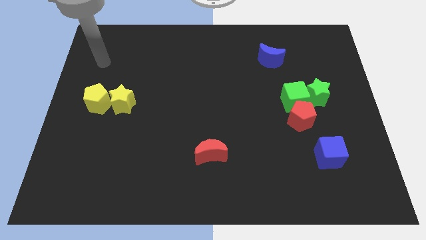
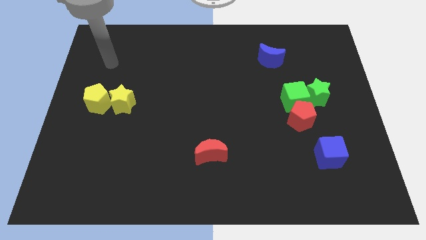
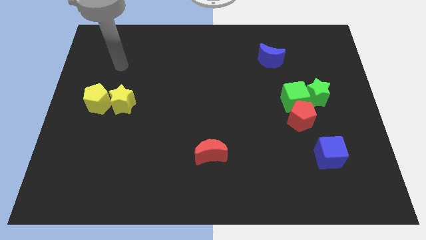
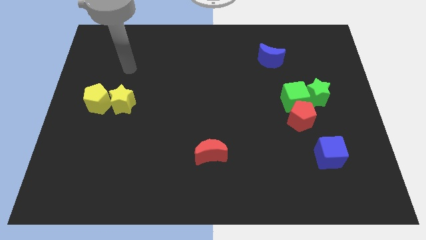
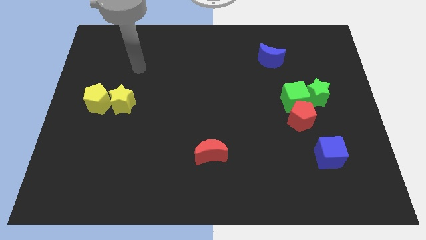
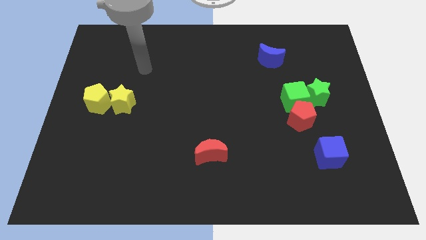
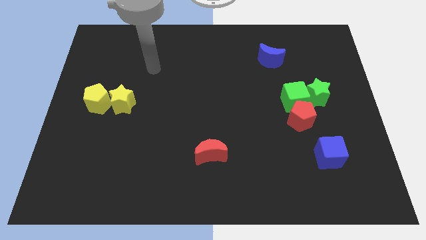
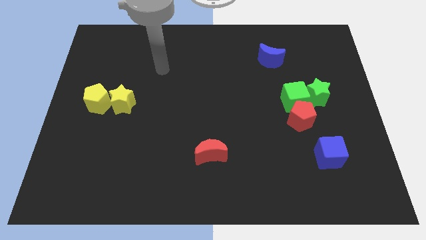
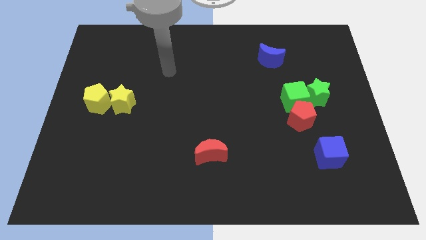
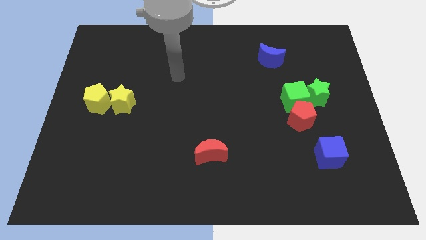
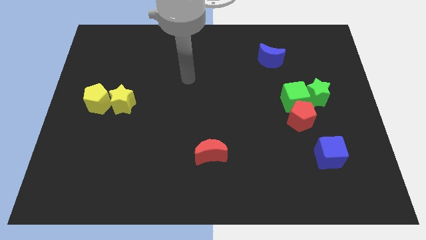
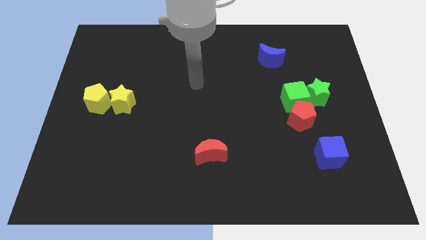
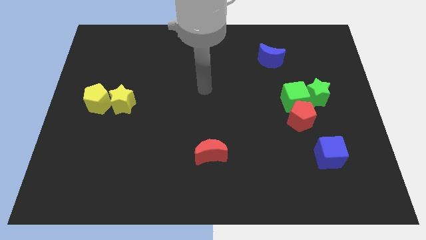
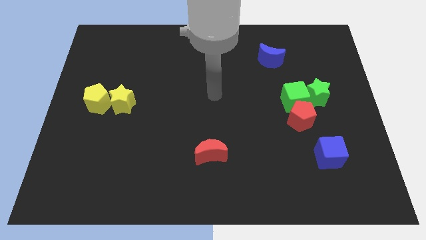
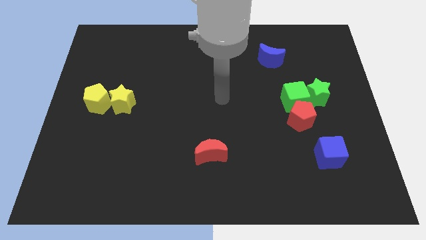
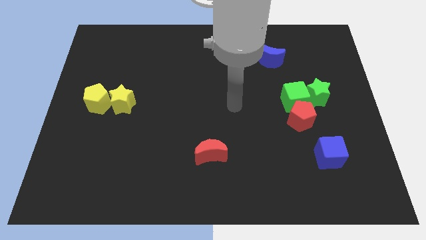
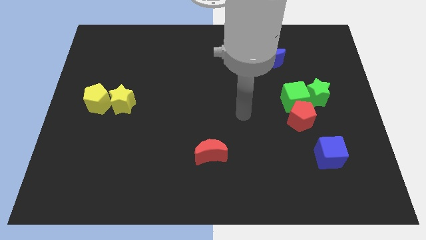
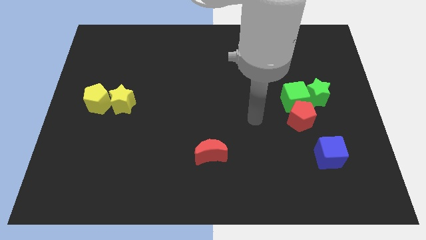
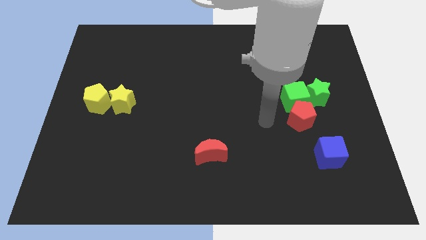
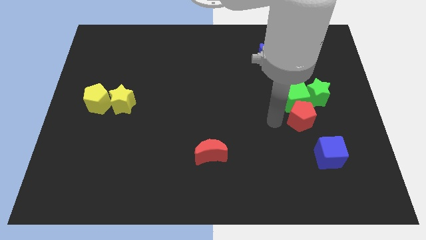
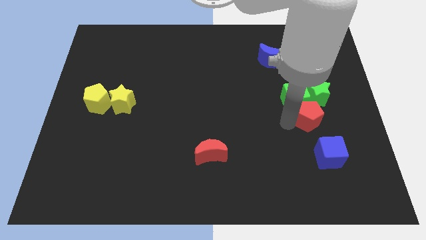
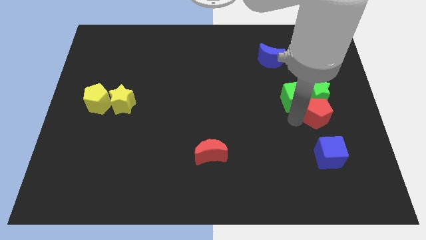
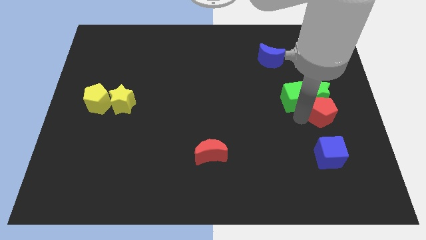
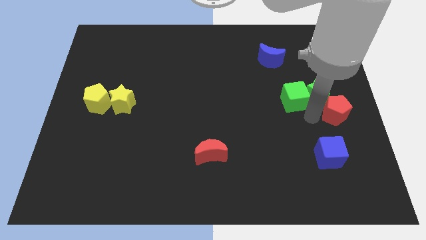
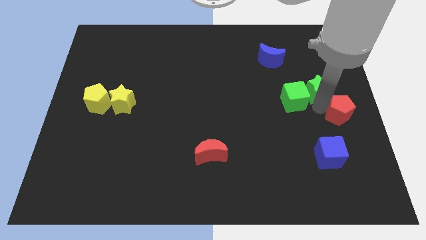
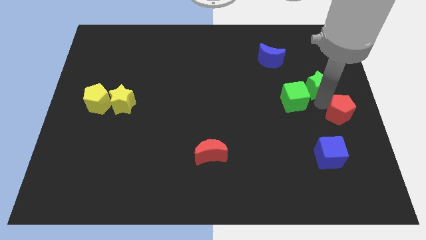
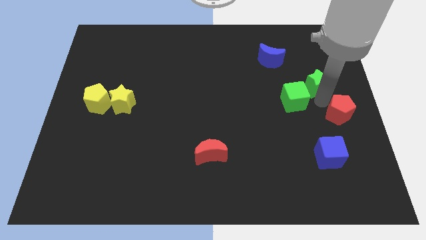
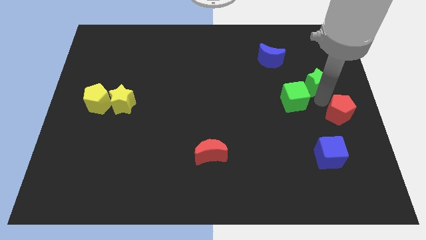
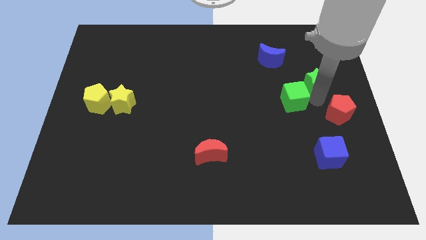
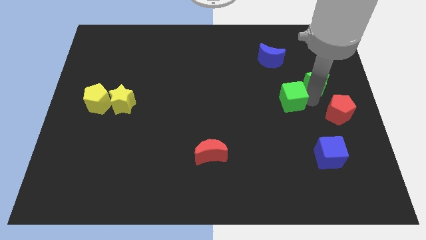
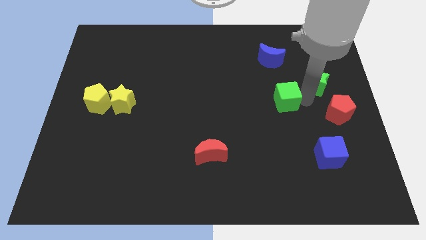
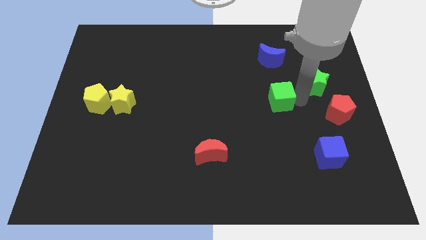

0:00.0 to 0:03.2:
move the green cube away from the red pentagon and green star

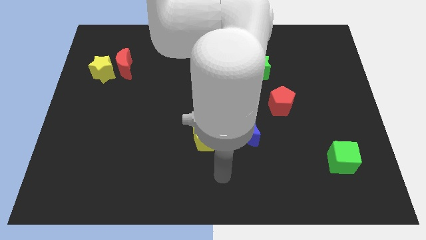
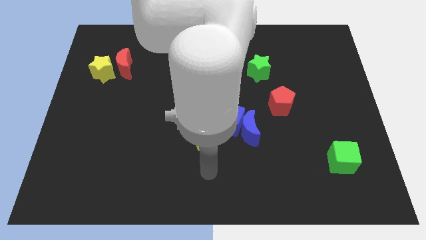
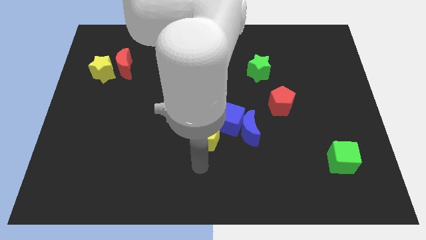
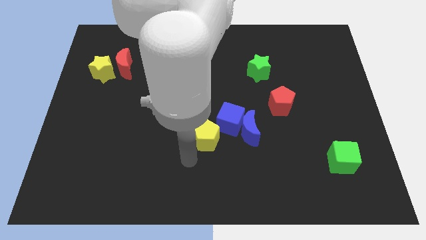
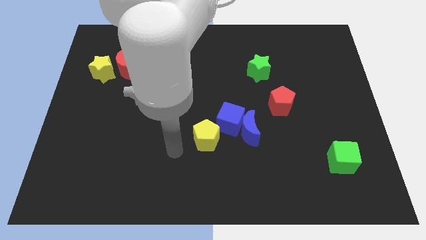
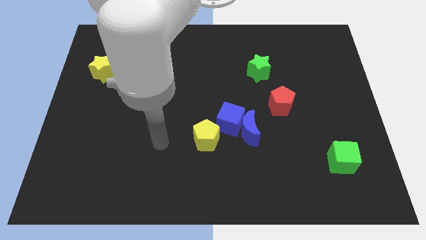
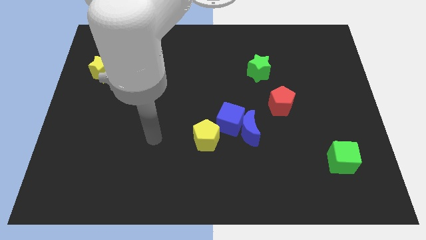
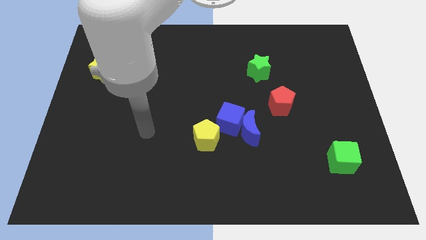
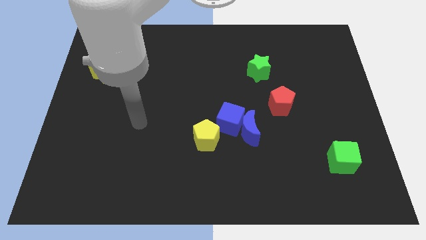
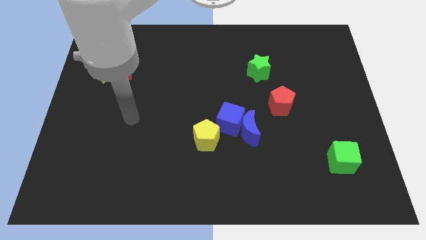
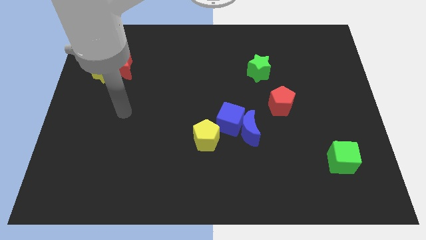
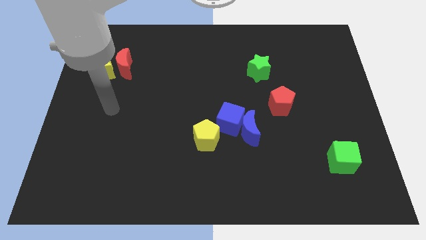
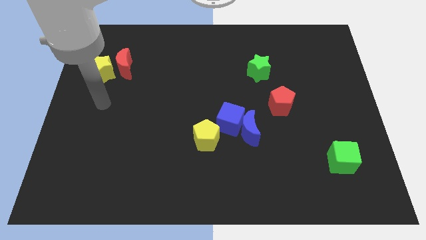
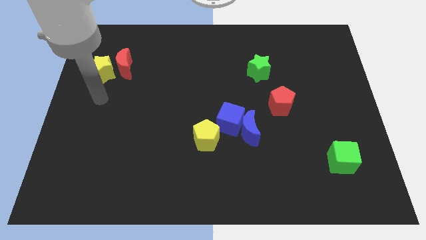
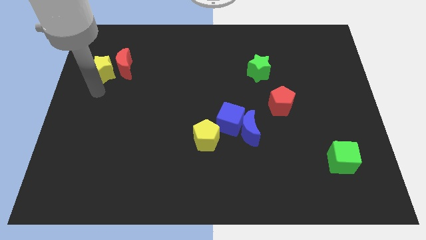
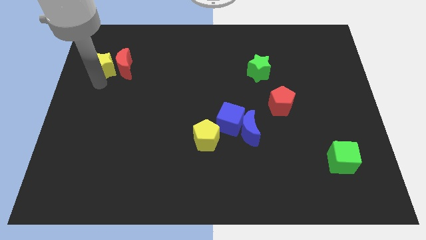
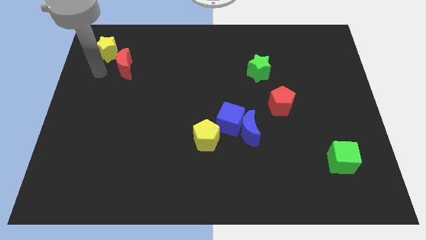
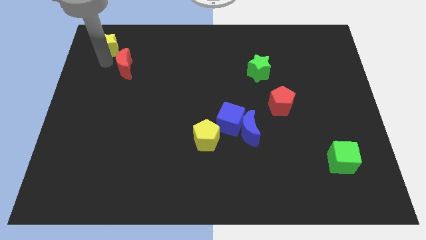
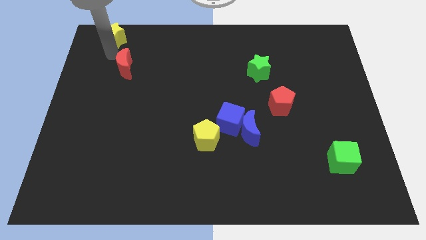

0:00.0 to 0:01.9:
move the red moon away from the yellow star

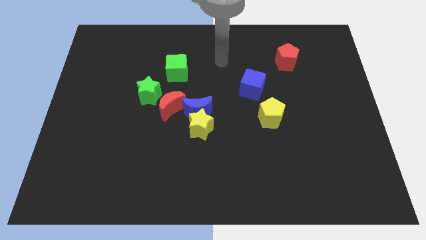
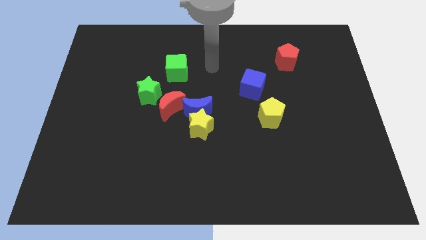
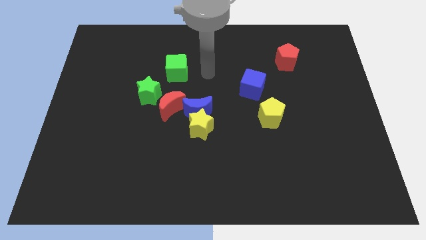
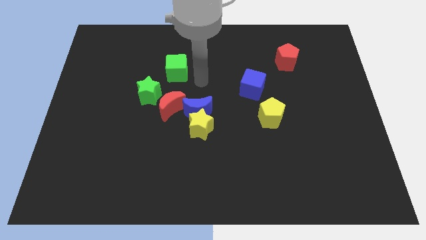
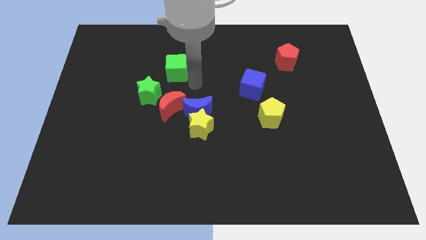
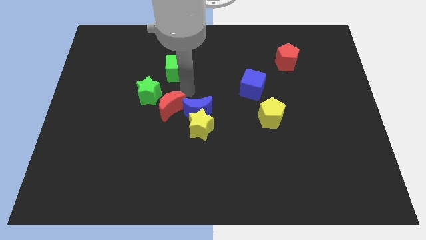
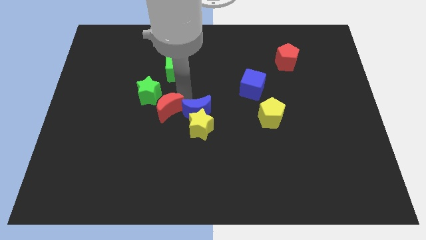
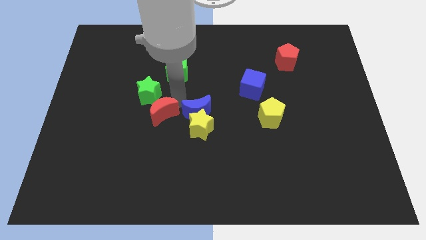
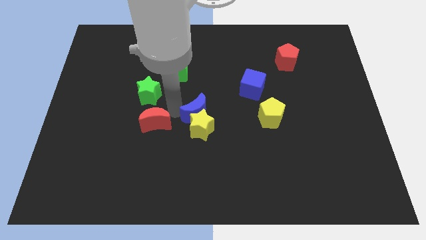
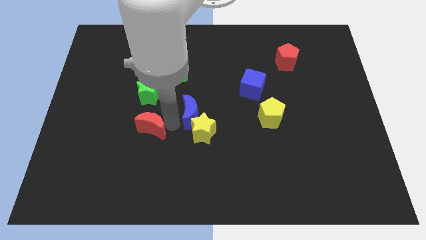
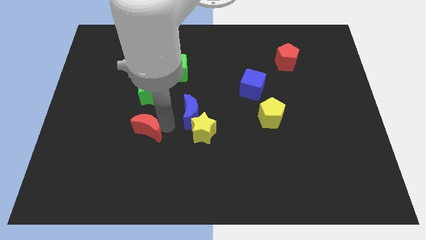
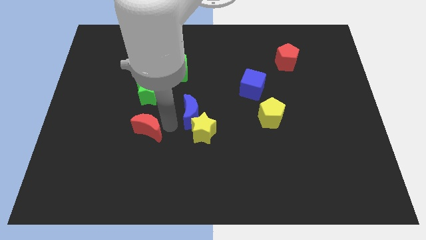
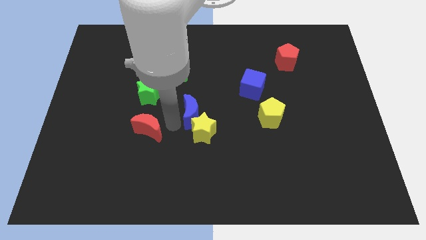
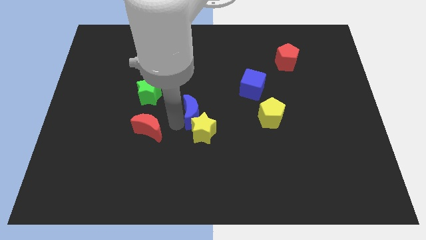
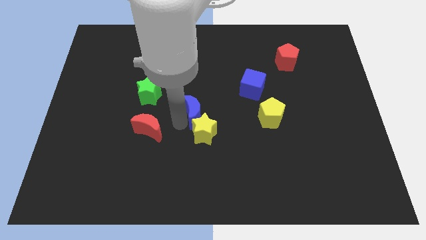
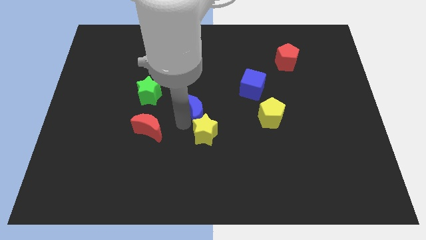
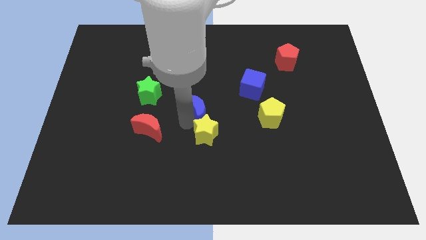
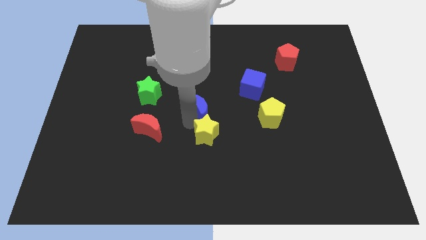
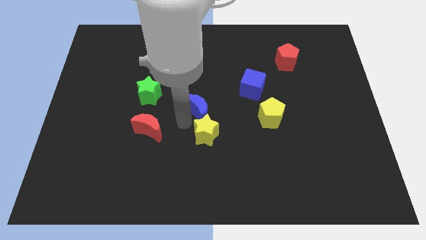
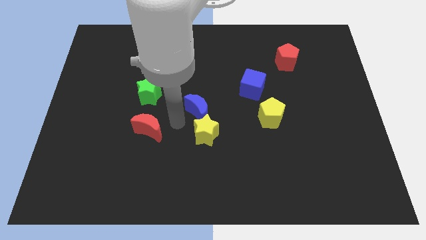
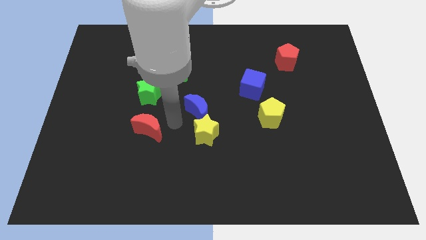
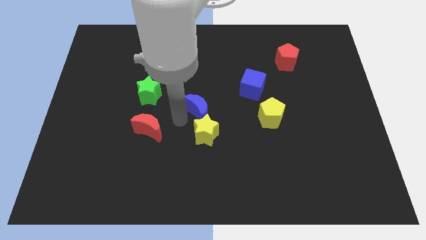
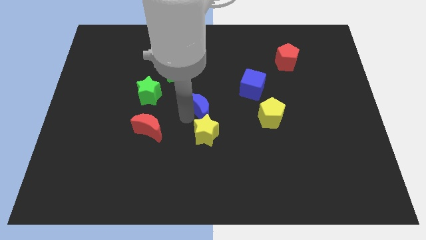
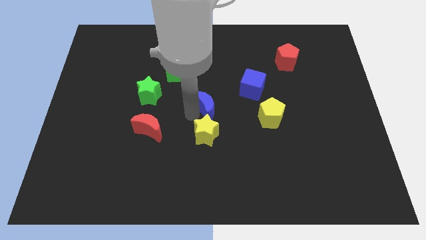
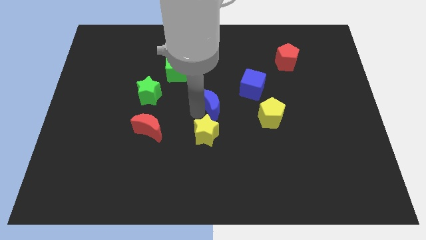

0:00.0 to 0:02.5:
pull the blue moon apart from the yellow star and red moon

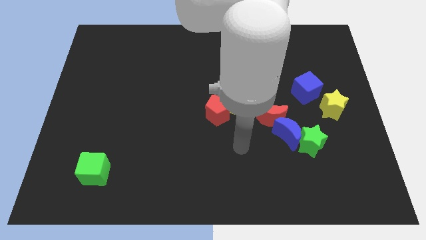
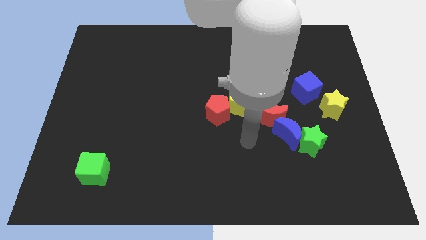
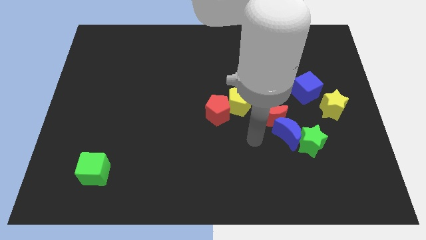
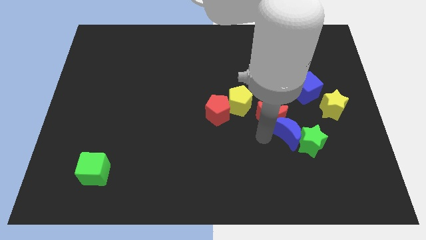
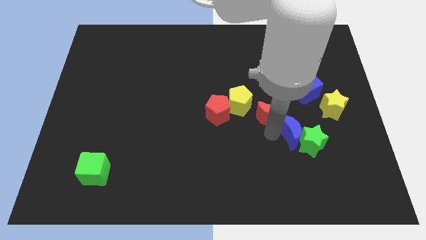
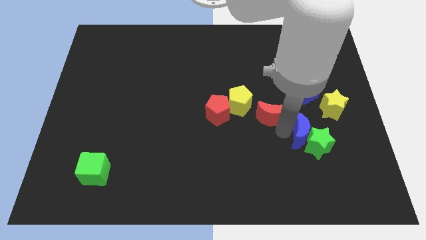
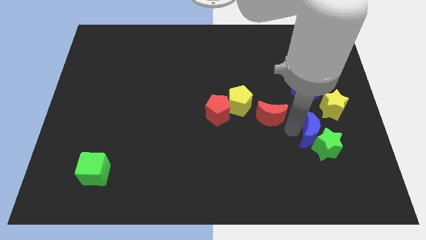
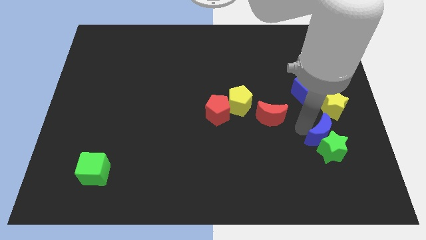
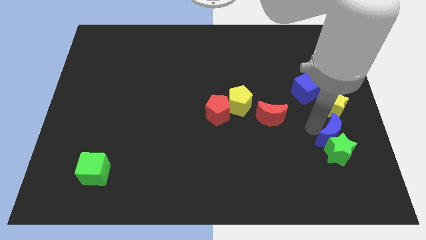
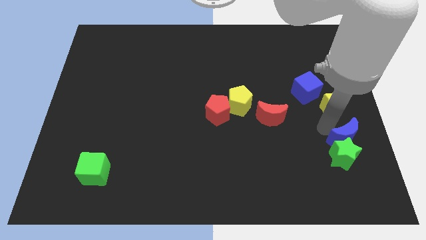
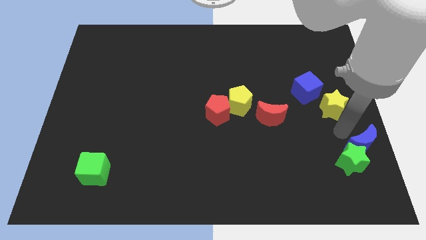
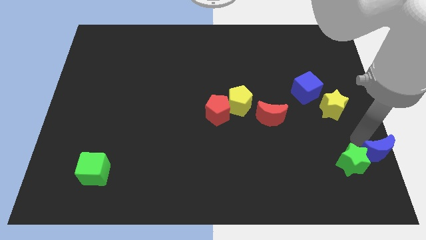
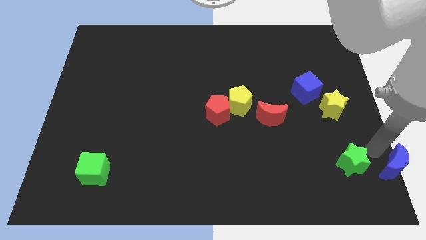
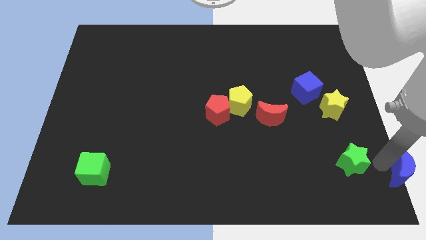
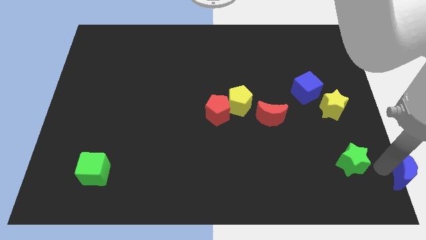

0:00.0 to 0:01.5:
move the green star away from the blue moon

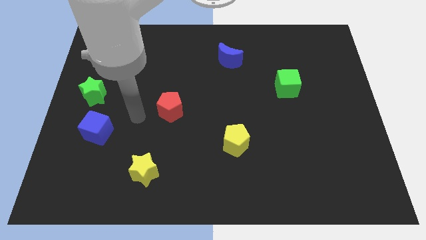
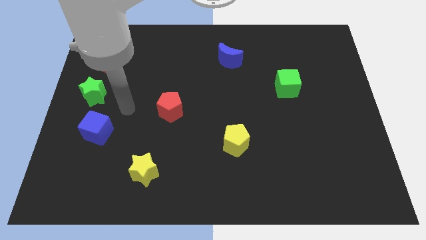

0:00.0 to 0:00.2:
pull the red moon apart from the green star
